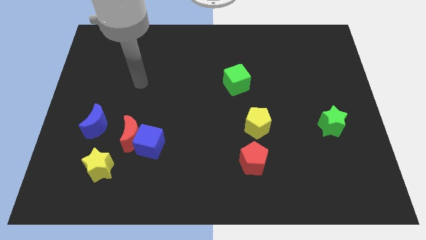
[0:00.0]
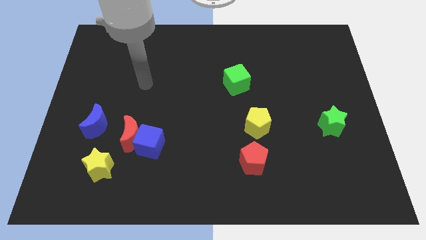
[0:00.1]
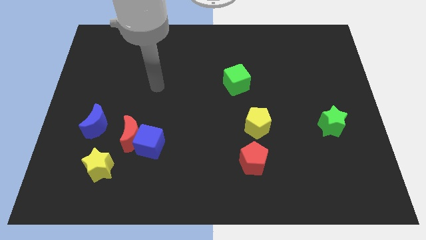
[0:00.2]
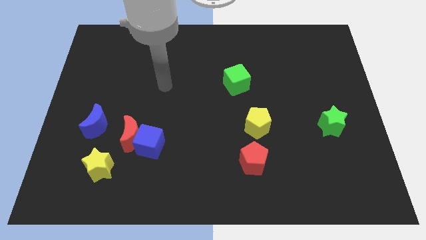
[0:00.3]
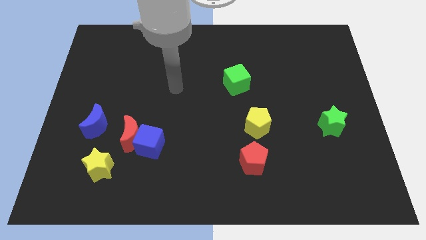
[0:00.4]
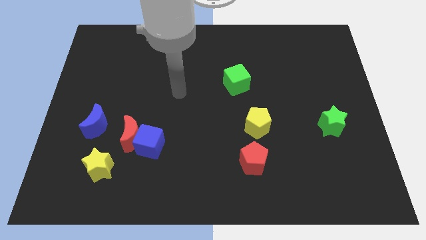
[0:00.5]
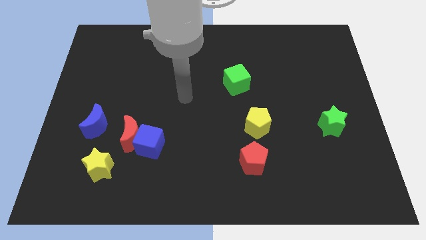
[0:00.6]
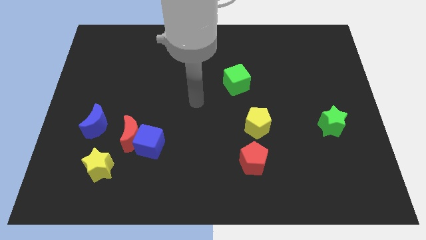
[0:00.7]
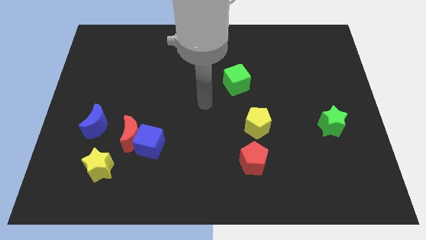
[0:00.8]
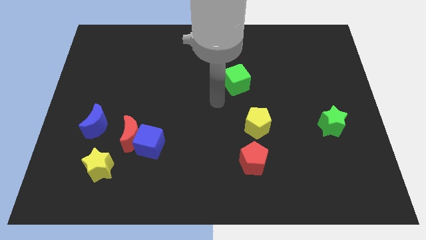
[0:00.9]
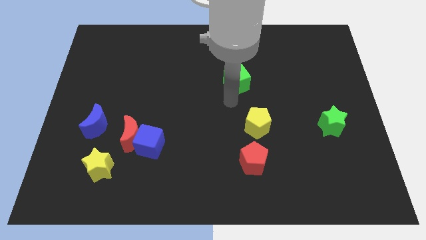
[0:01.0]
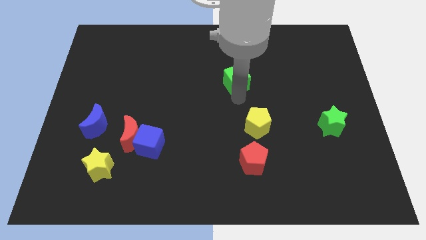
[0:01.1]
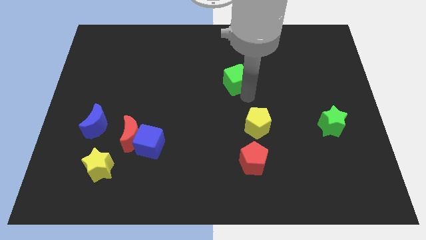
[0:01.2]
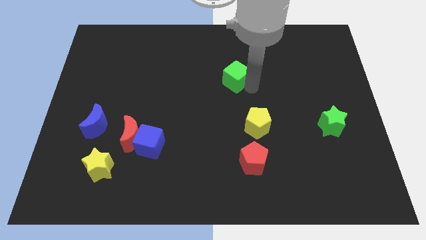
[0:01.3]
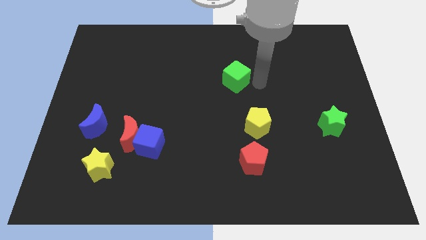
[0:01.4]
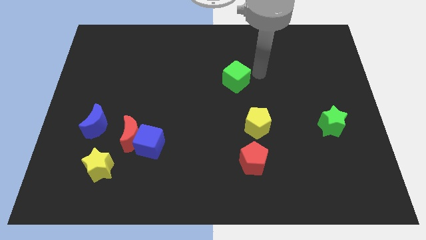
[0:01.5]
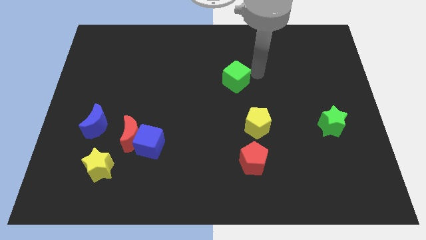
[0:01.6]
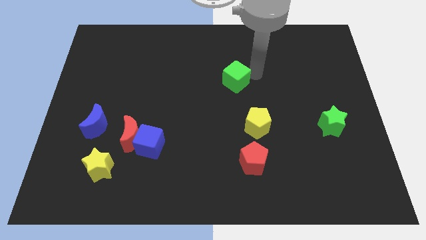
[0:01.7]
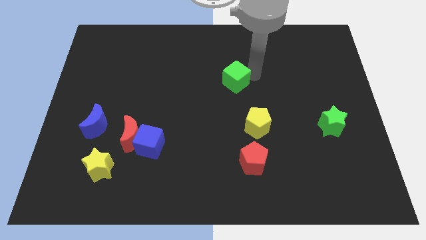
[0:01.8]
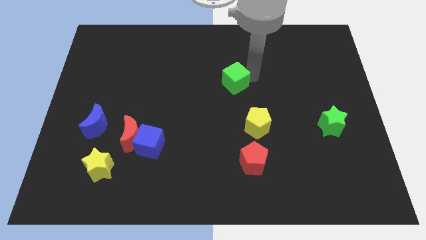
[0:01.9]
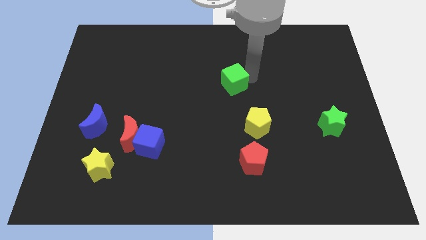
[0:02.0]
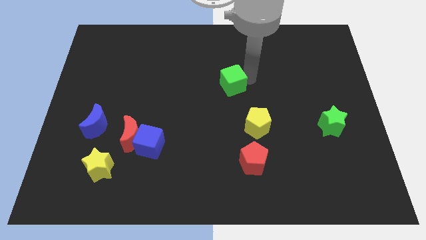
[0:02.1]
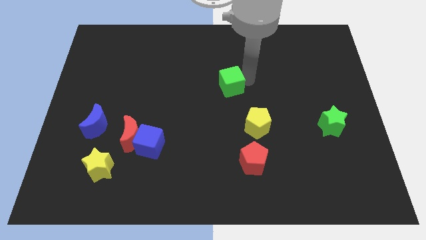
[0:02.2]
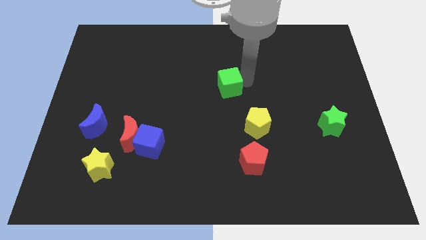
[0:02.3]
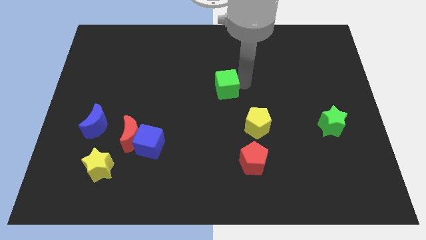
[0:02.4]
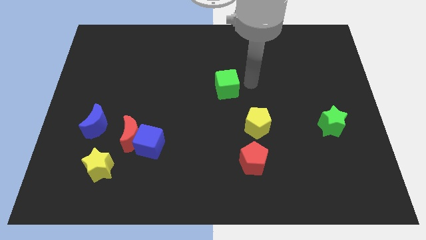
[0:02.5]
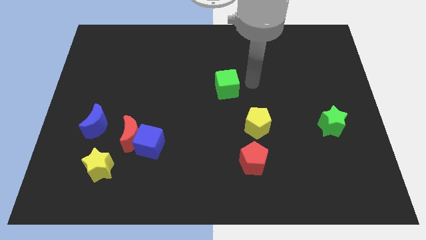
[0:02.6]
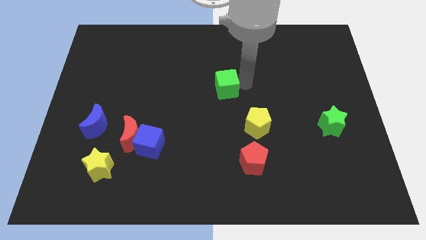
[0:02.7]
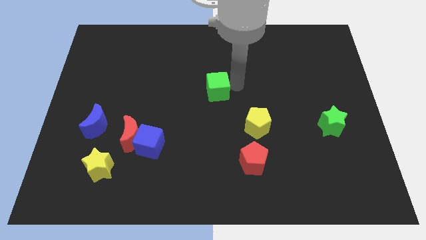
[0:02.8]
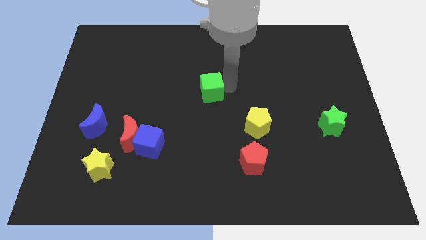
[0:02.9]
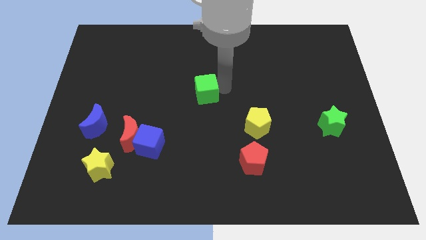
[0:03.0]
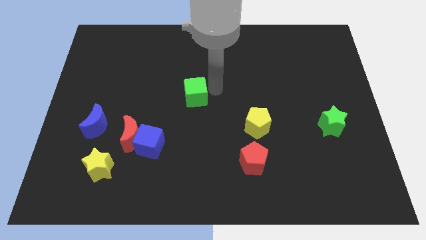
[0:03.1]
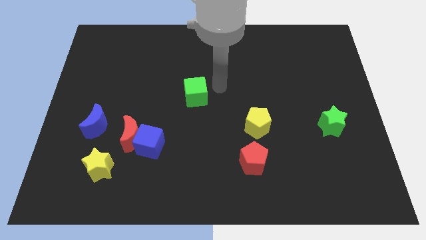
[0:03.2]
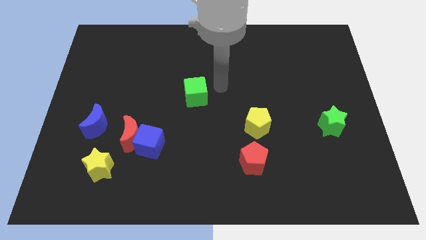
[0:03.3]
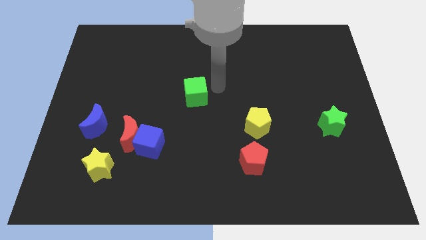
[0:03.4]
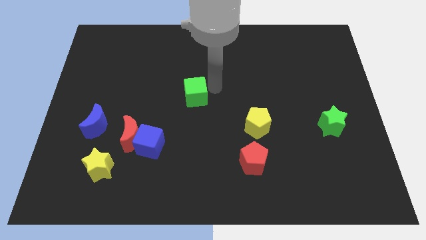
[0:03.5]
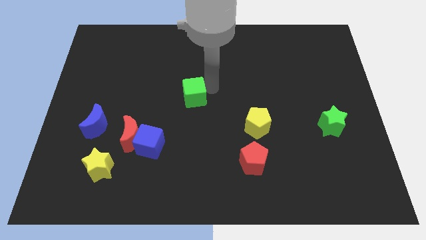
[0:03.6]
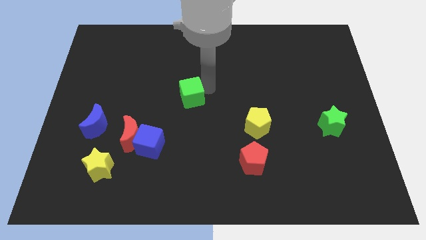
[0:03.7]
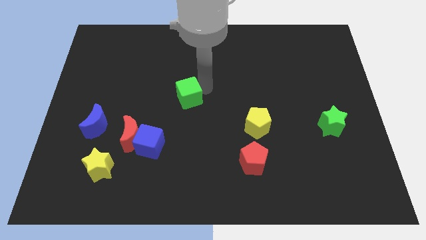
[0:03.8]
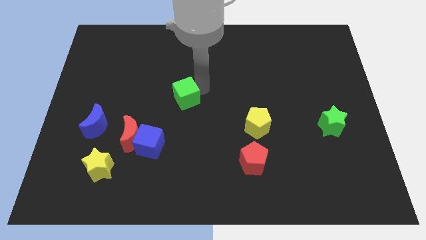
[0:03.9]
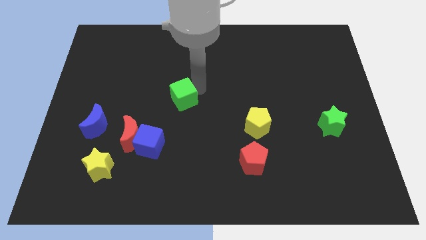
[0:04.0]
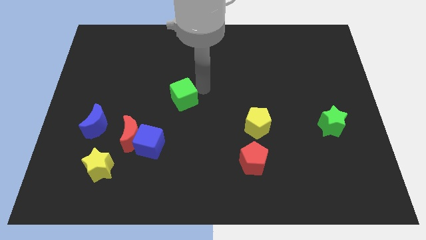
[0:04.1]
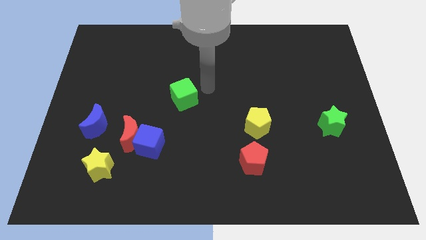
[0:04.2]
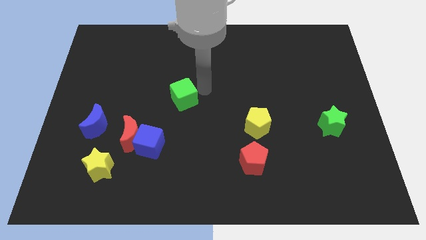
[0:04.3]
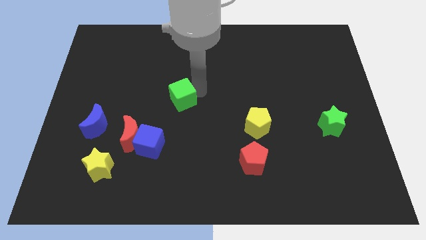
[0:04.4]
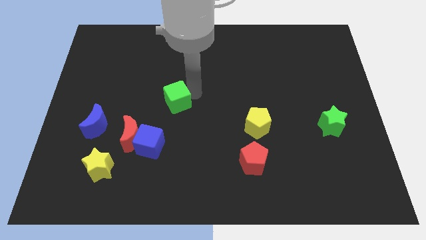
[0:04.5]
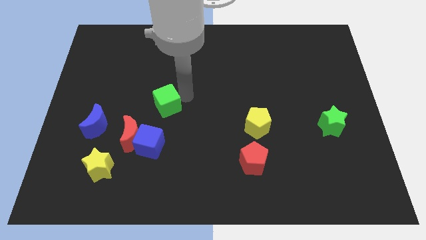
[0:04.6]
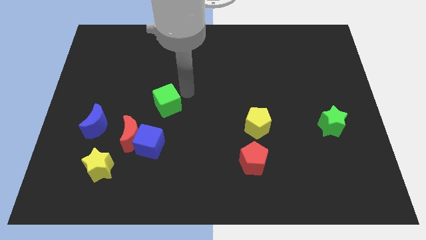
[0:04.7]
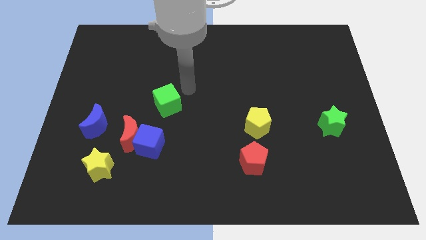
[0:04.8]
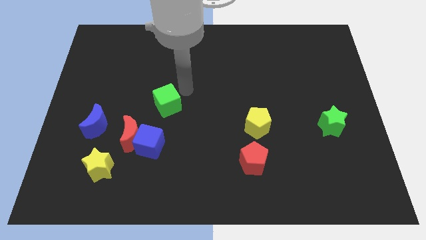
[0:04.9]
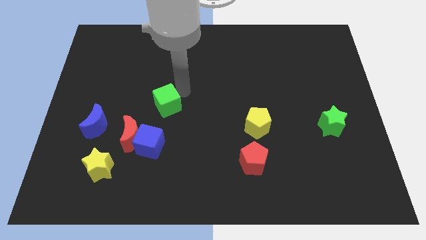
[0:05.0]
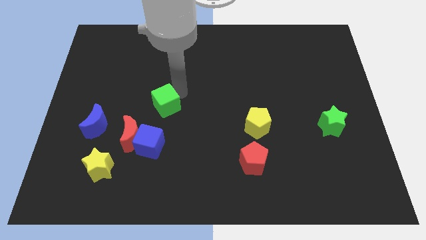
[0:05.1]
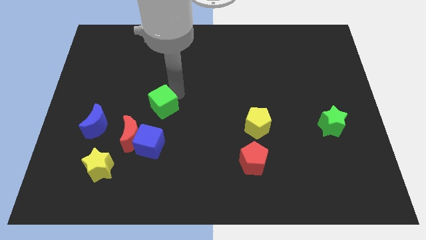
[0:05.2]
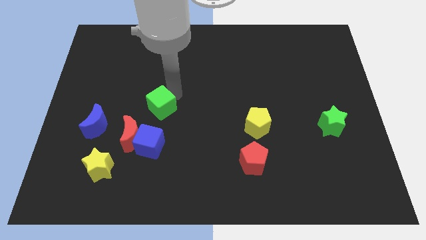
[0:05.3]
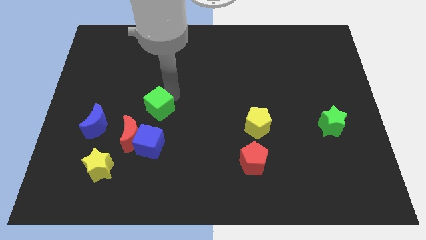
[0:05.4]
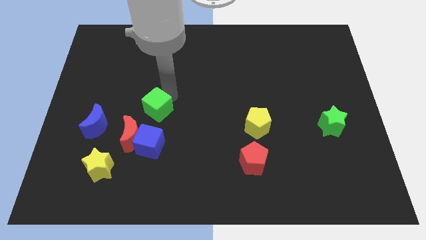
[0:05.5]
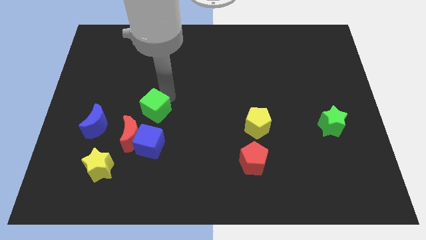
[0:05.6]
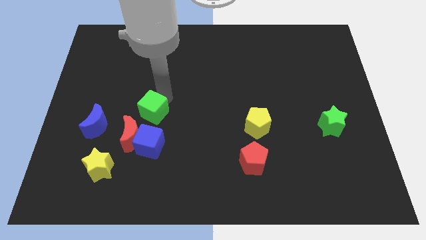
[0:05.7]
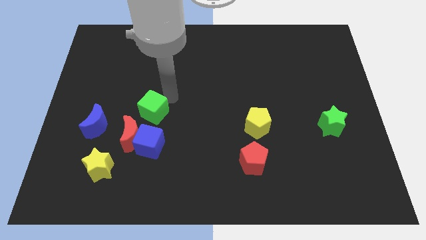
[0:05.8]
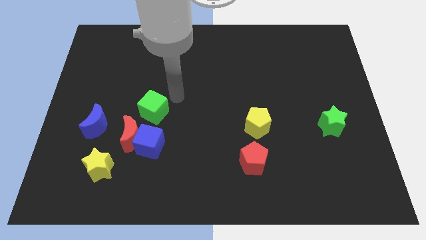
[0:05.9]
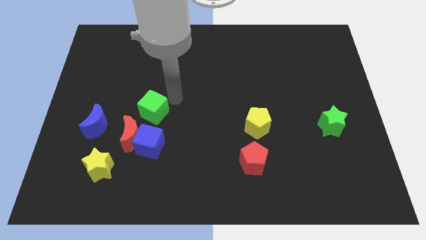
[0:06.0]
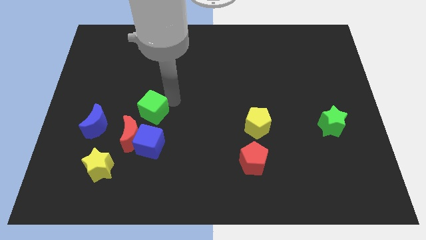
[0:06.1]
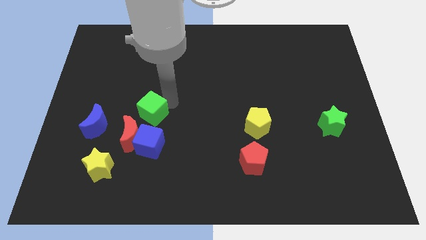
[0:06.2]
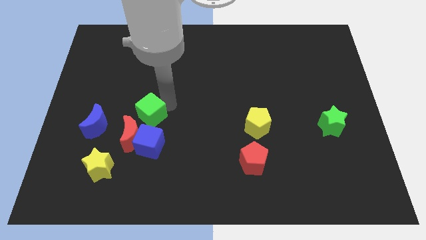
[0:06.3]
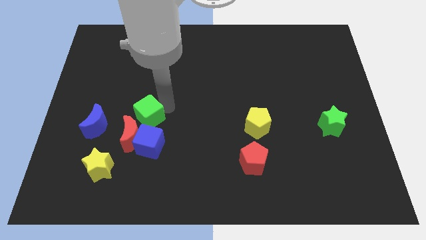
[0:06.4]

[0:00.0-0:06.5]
slide the green cube diagonally up and to the left of the blue cube
